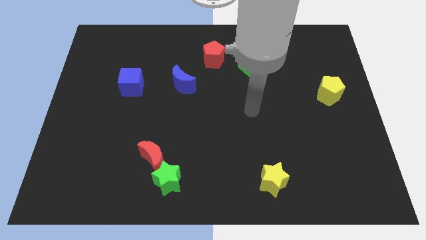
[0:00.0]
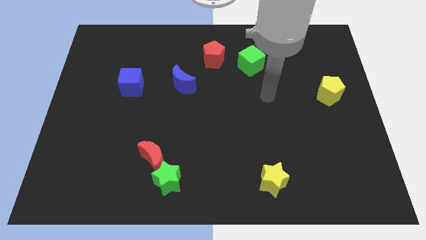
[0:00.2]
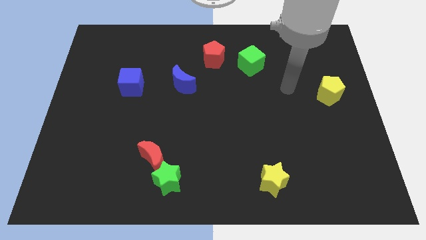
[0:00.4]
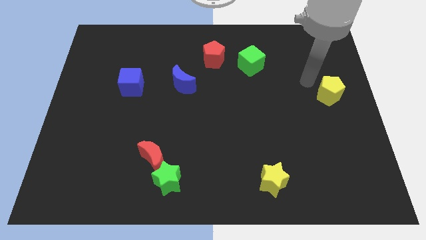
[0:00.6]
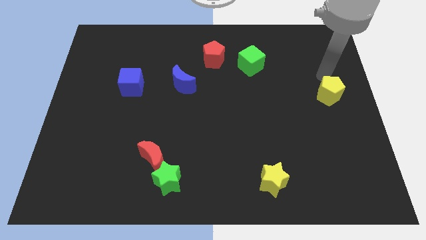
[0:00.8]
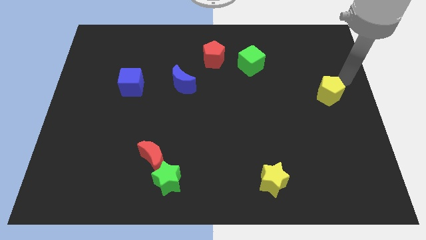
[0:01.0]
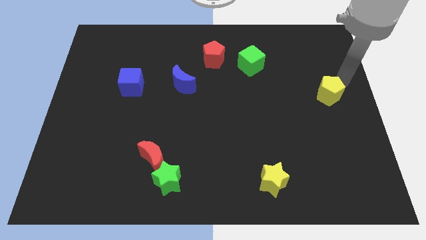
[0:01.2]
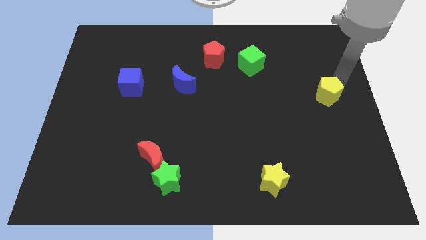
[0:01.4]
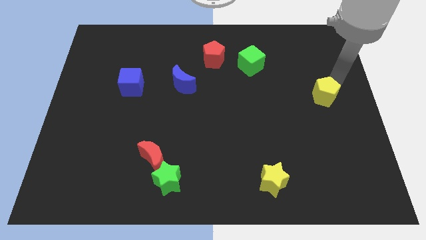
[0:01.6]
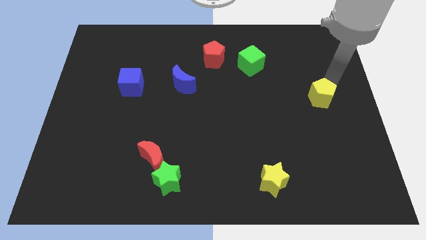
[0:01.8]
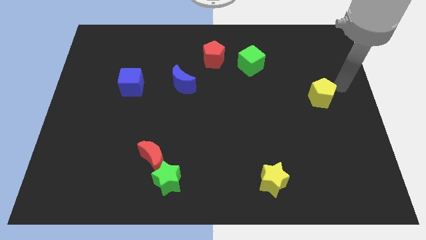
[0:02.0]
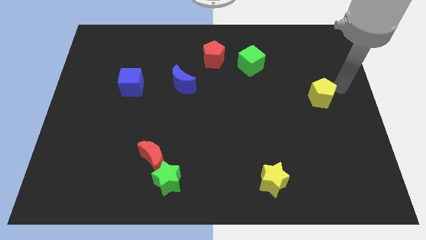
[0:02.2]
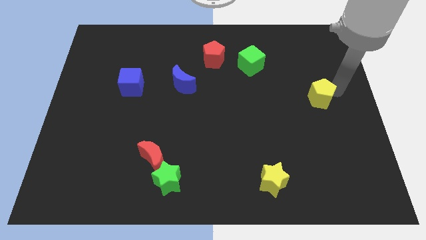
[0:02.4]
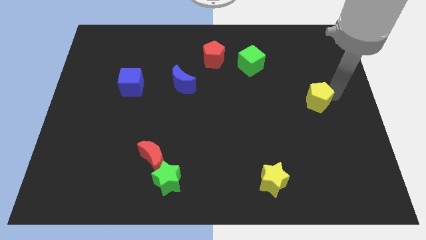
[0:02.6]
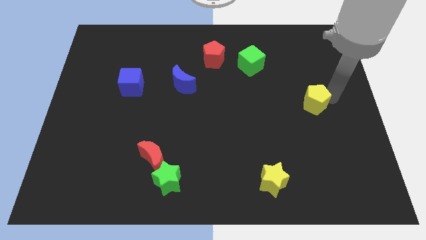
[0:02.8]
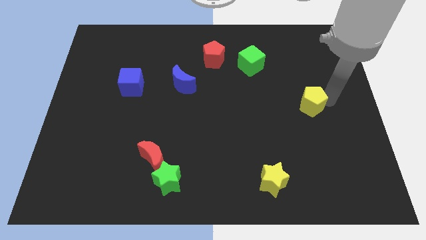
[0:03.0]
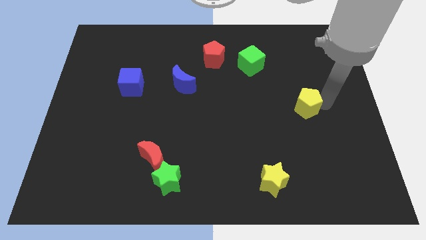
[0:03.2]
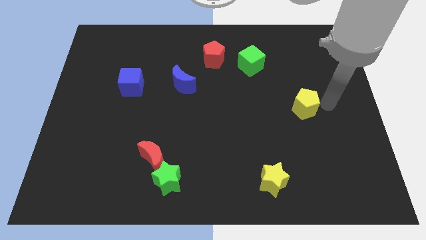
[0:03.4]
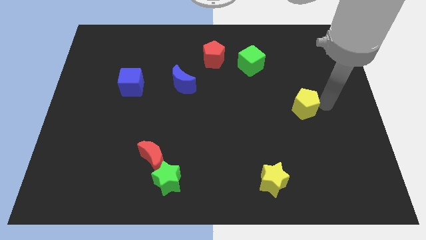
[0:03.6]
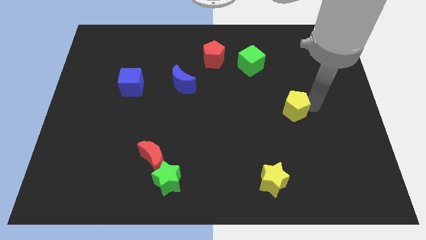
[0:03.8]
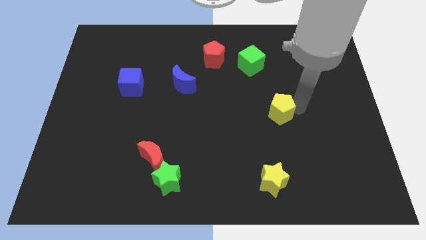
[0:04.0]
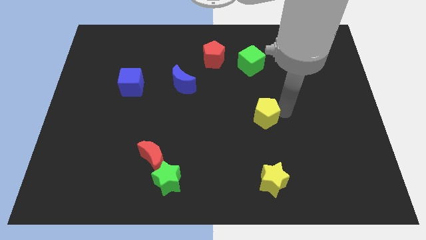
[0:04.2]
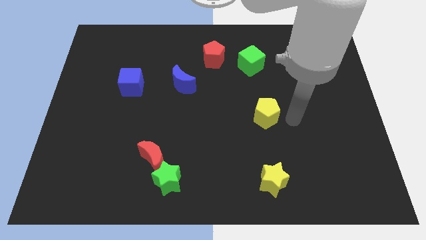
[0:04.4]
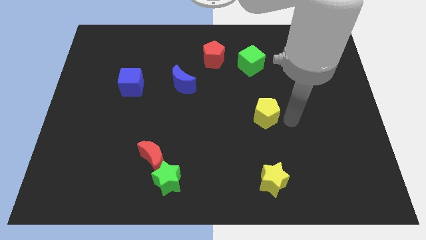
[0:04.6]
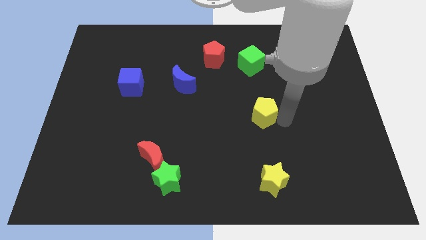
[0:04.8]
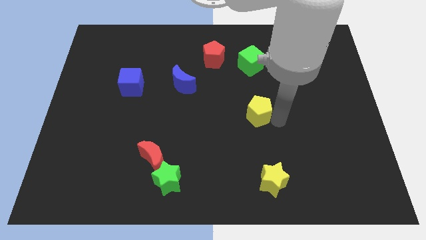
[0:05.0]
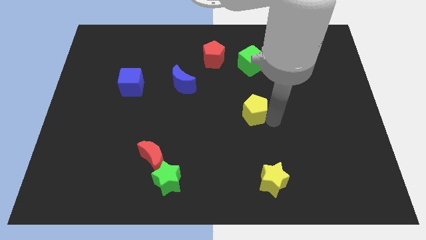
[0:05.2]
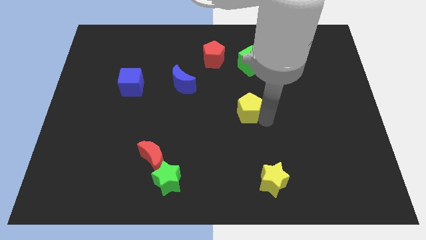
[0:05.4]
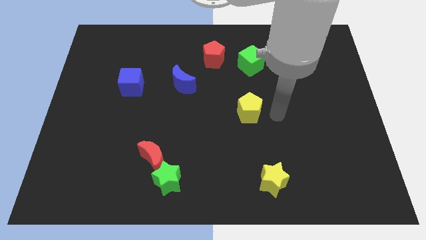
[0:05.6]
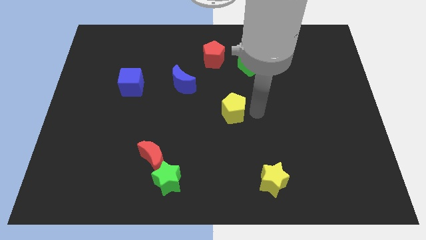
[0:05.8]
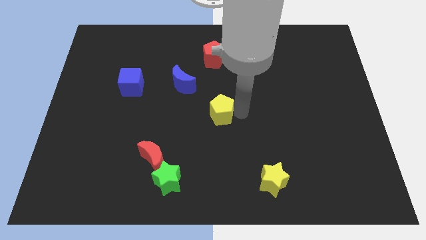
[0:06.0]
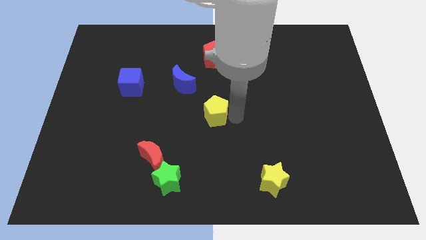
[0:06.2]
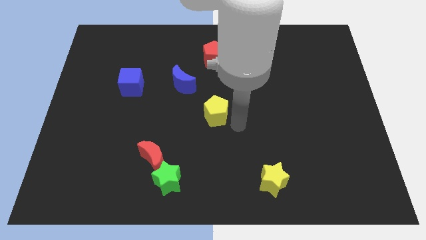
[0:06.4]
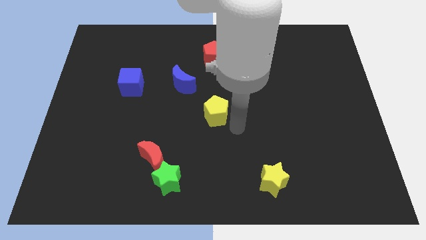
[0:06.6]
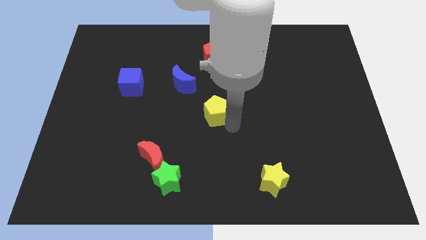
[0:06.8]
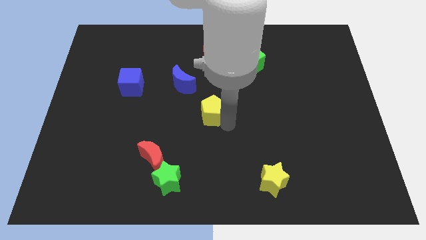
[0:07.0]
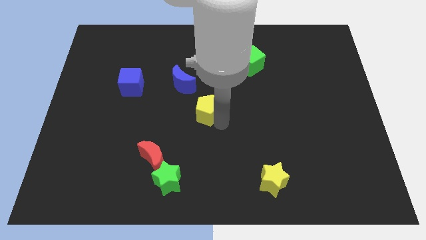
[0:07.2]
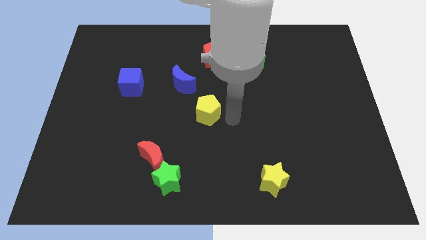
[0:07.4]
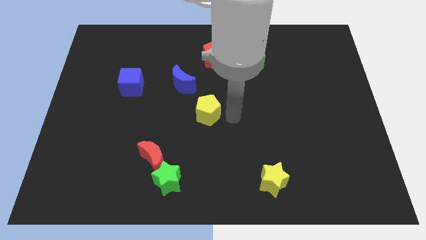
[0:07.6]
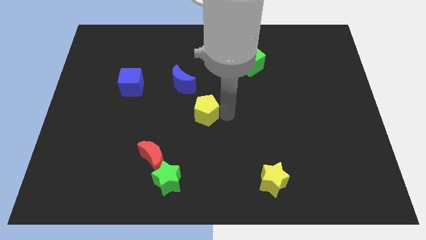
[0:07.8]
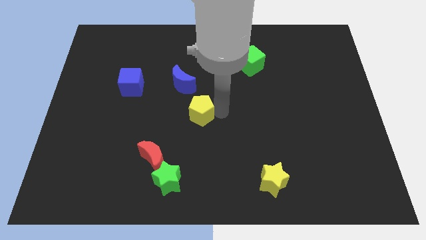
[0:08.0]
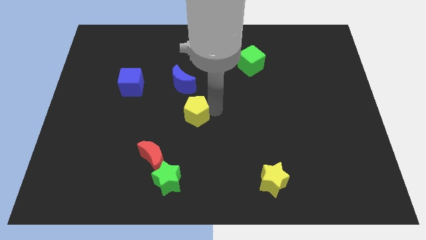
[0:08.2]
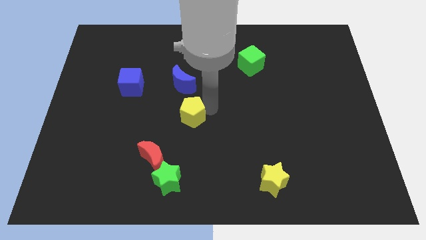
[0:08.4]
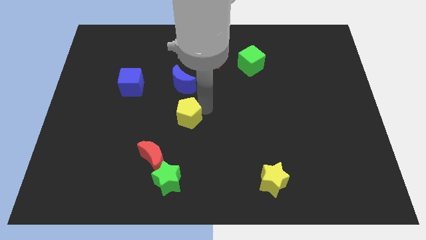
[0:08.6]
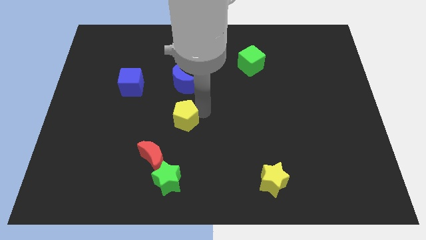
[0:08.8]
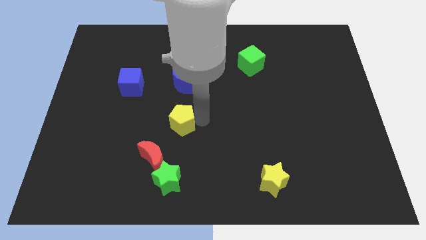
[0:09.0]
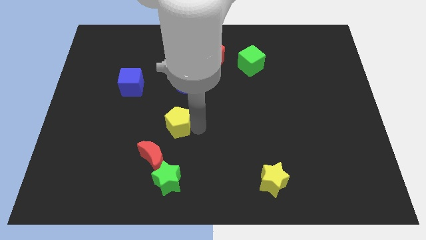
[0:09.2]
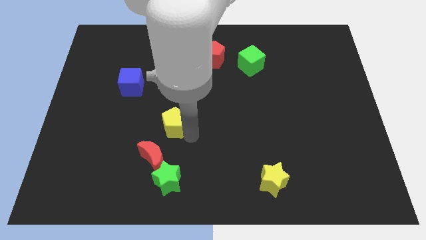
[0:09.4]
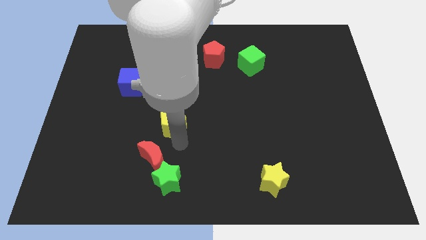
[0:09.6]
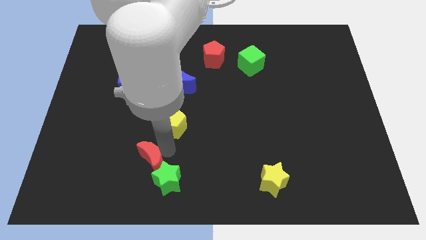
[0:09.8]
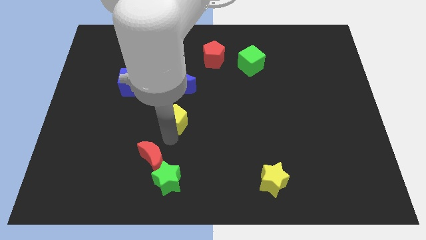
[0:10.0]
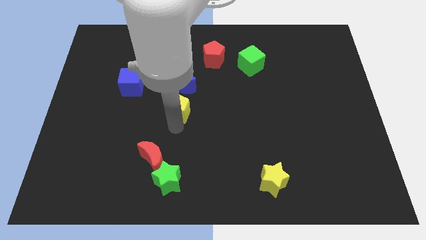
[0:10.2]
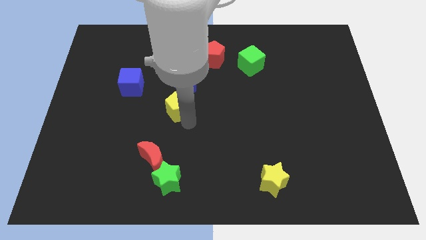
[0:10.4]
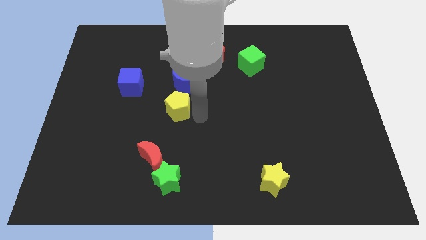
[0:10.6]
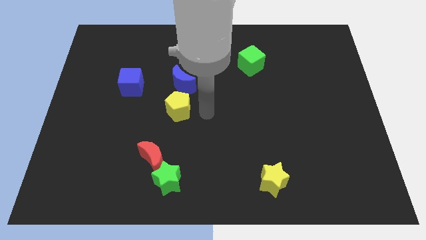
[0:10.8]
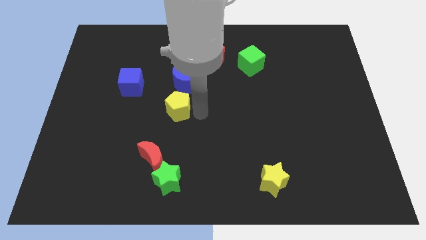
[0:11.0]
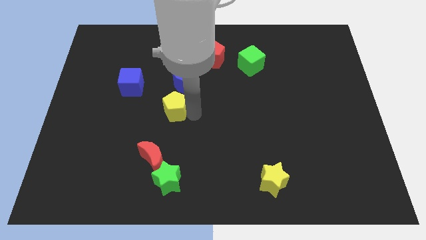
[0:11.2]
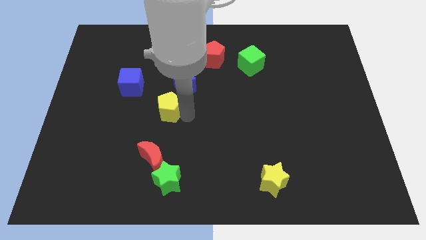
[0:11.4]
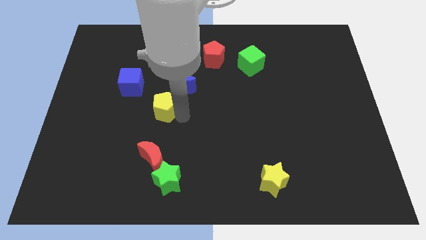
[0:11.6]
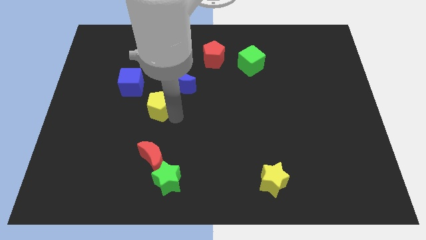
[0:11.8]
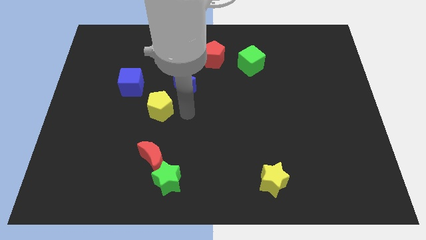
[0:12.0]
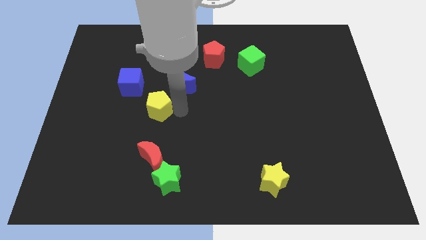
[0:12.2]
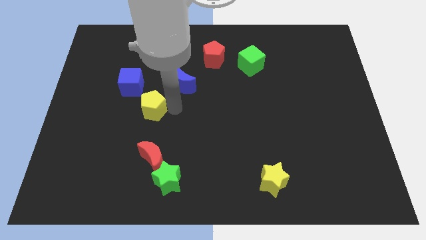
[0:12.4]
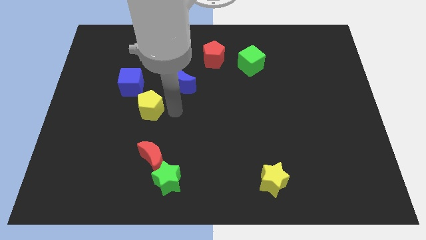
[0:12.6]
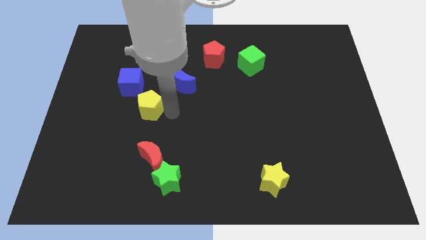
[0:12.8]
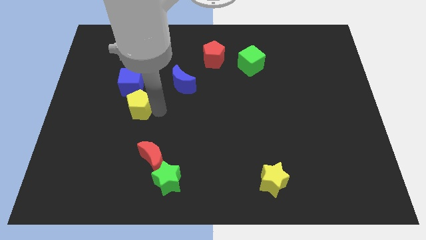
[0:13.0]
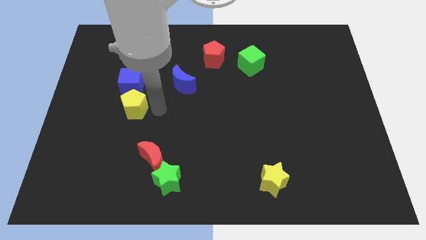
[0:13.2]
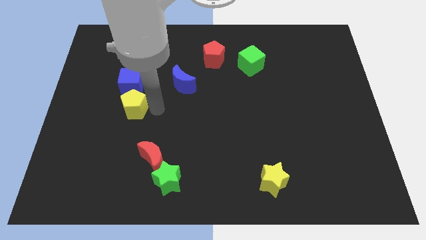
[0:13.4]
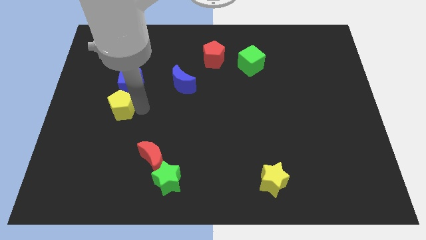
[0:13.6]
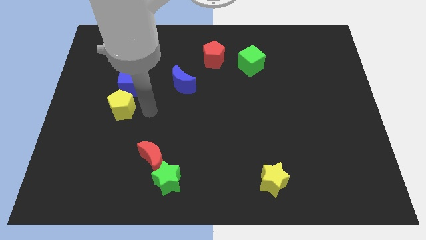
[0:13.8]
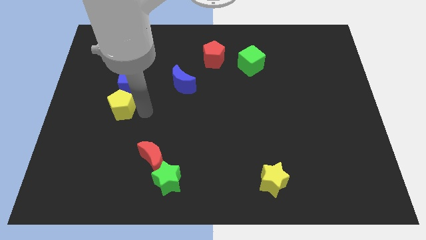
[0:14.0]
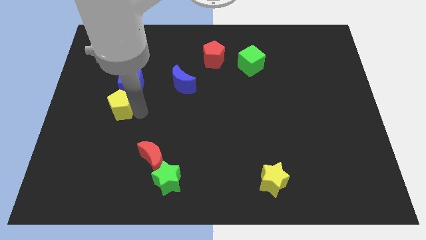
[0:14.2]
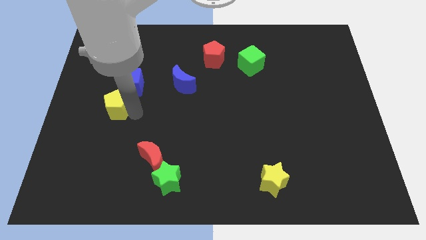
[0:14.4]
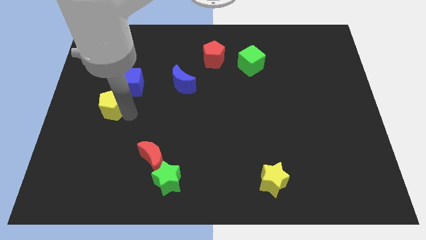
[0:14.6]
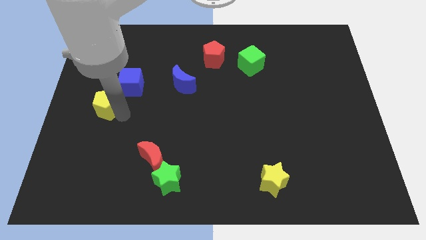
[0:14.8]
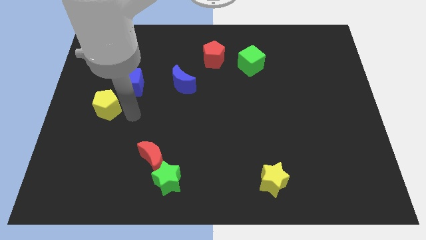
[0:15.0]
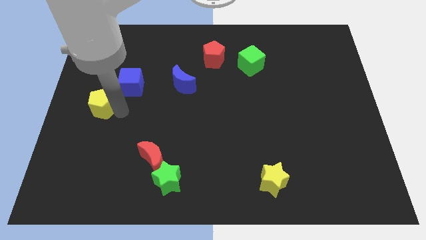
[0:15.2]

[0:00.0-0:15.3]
push the yellow pentagon to the left side of the board
